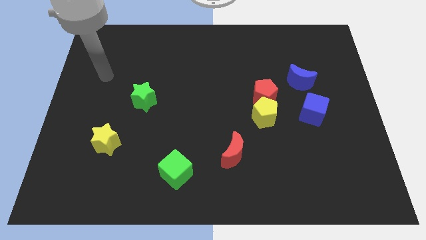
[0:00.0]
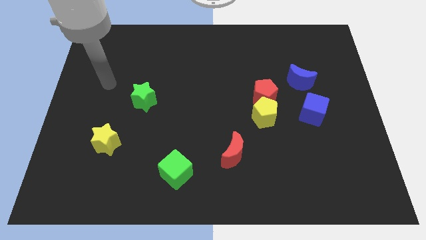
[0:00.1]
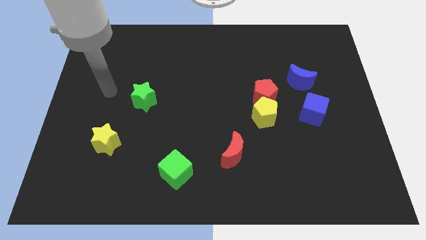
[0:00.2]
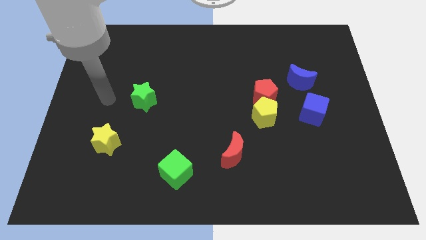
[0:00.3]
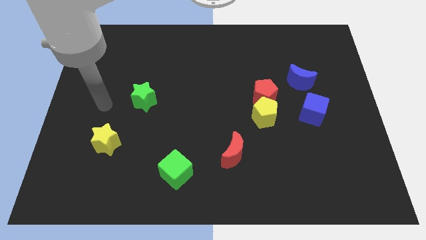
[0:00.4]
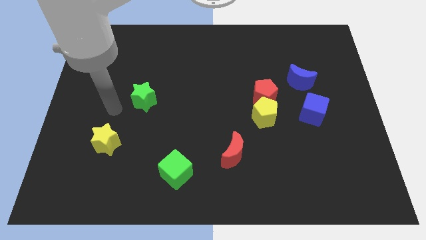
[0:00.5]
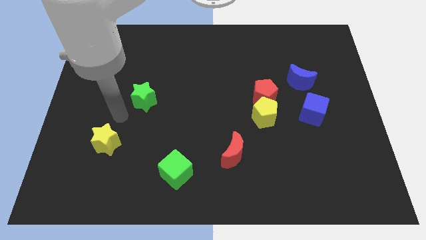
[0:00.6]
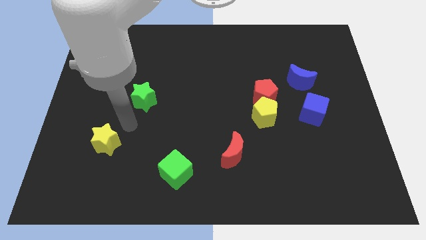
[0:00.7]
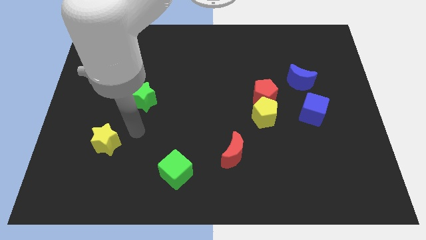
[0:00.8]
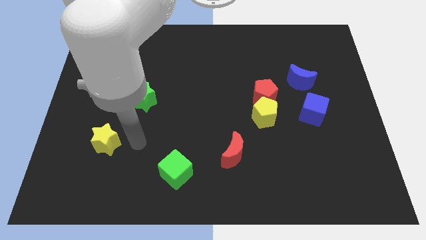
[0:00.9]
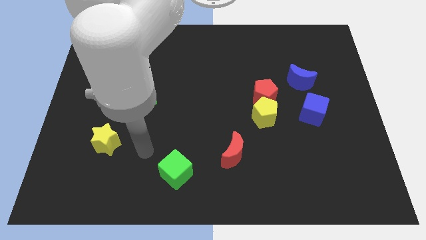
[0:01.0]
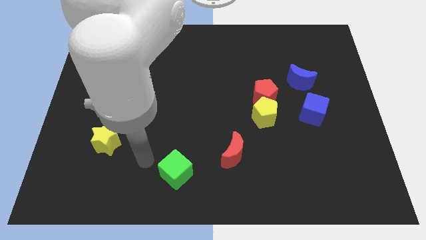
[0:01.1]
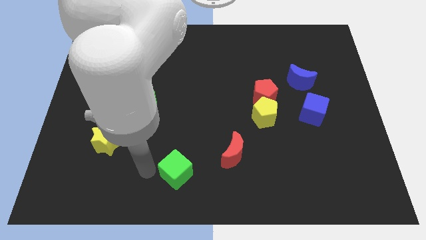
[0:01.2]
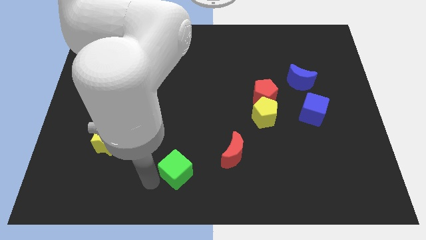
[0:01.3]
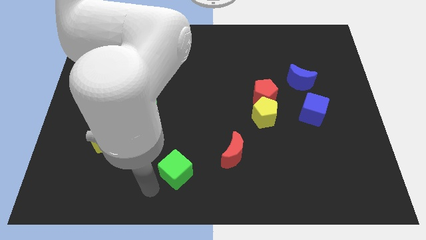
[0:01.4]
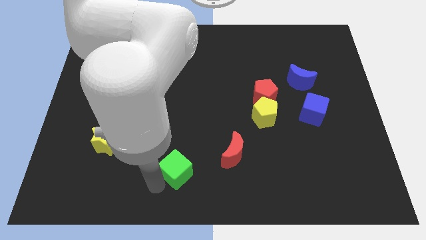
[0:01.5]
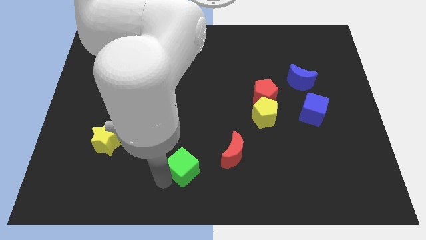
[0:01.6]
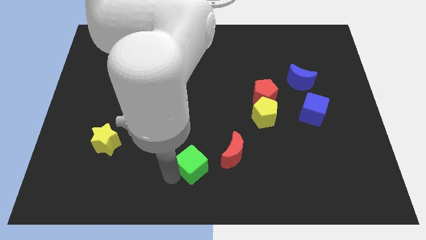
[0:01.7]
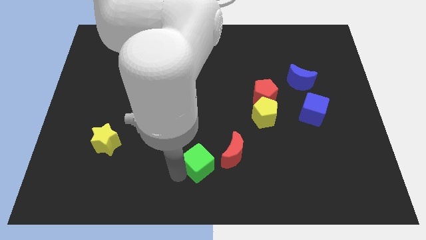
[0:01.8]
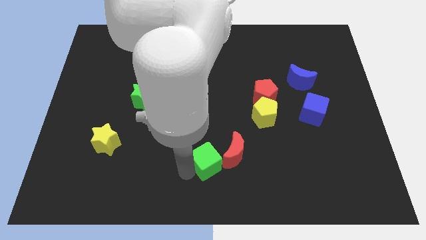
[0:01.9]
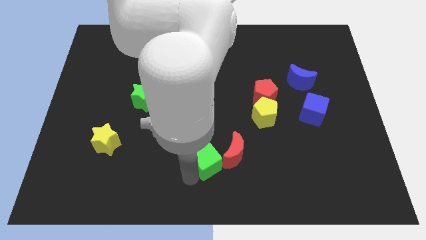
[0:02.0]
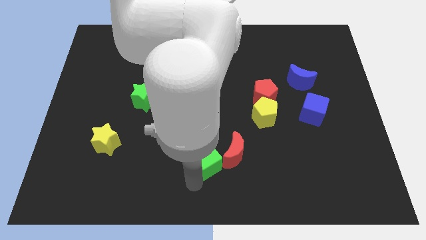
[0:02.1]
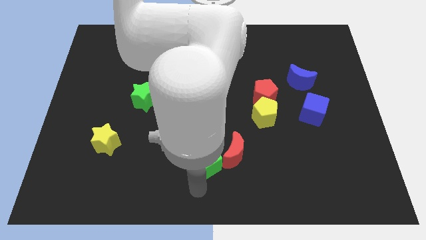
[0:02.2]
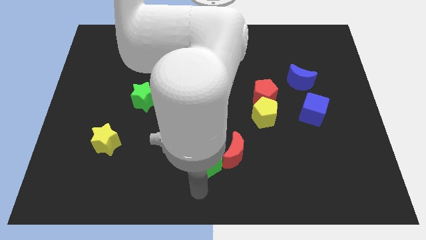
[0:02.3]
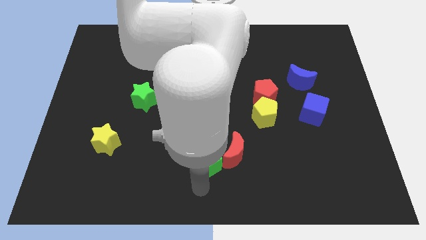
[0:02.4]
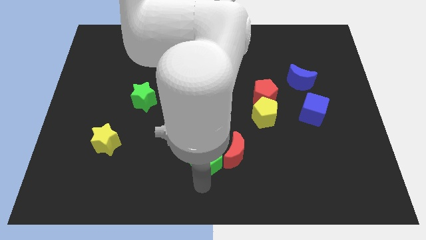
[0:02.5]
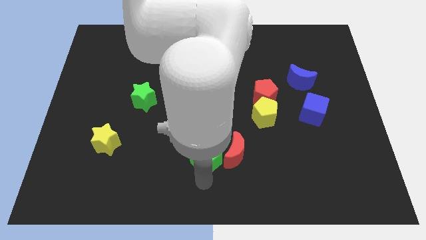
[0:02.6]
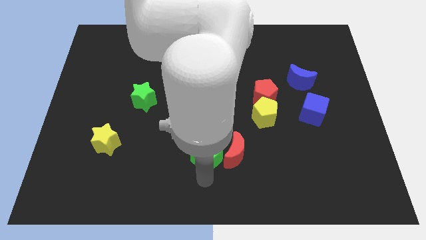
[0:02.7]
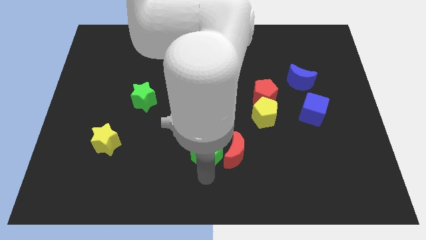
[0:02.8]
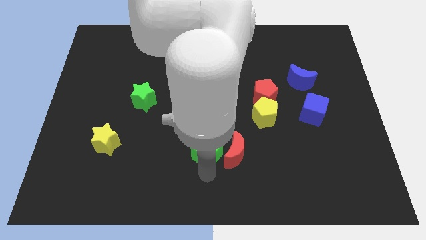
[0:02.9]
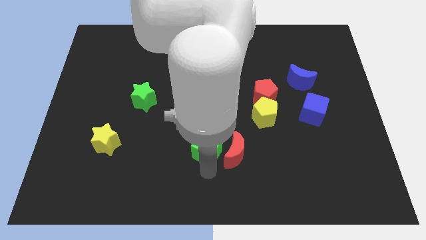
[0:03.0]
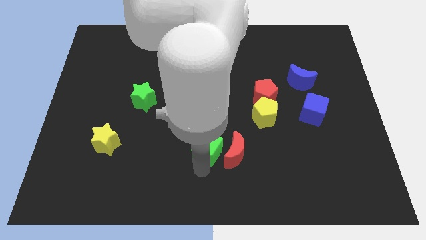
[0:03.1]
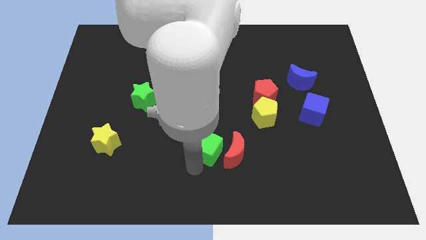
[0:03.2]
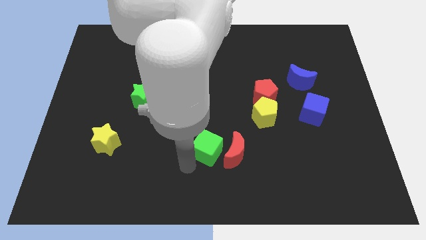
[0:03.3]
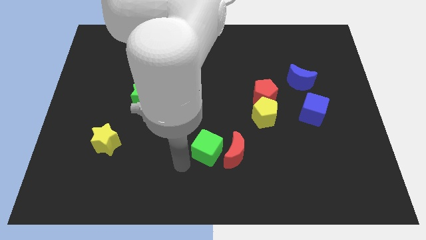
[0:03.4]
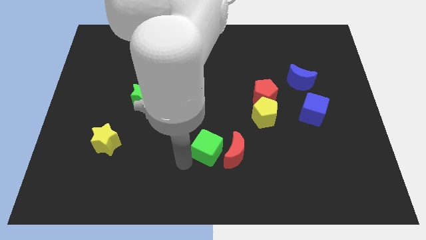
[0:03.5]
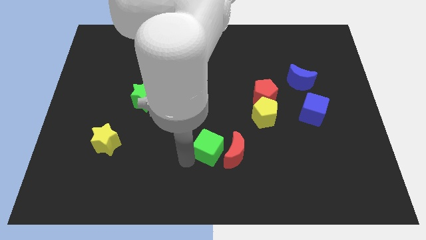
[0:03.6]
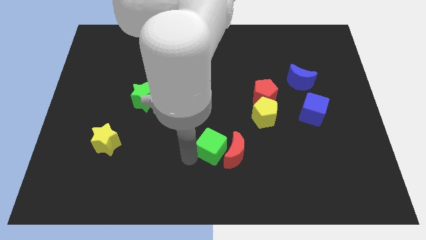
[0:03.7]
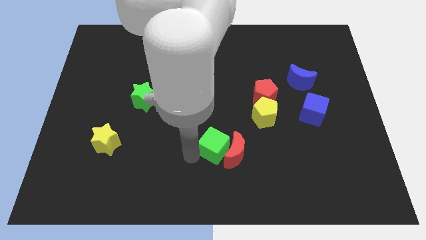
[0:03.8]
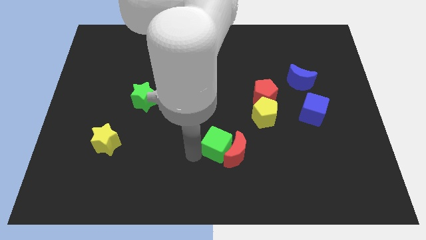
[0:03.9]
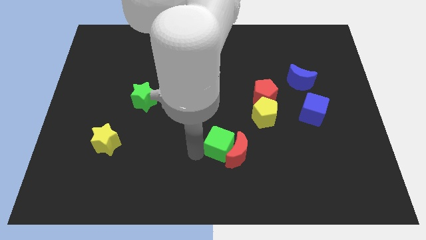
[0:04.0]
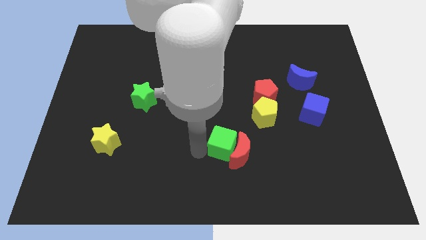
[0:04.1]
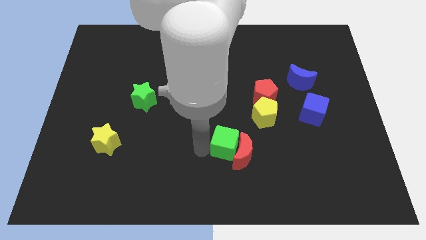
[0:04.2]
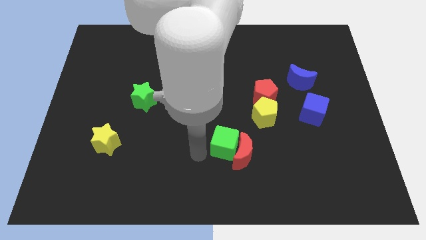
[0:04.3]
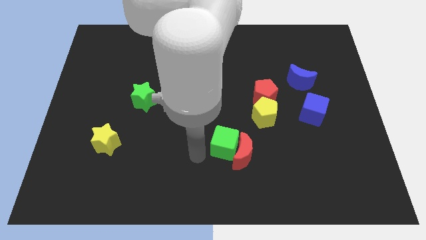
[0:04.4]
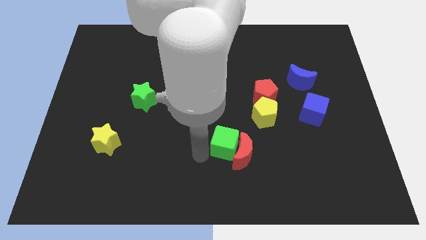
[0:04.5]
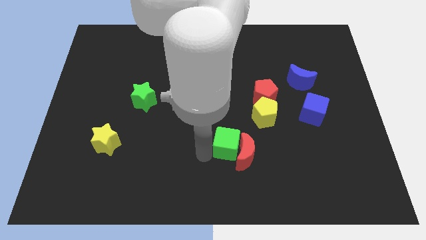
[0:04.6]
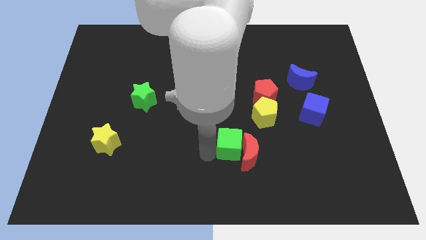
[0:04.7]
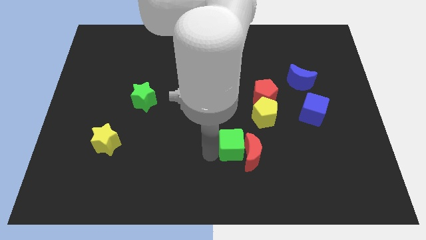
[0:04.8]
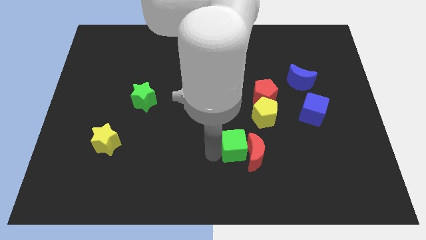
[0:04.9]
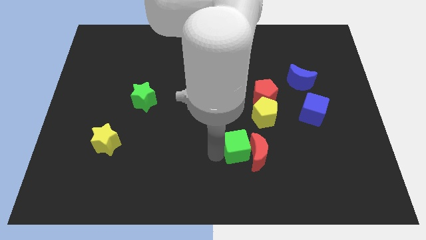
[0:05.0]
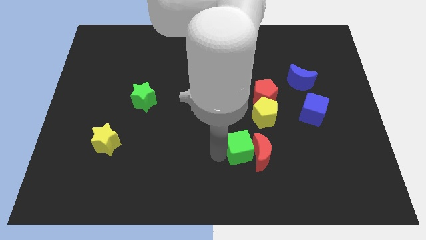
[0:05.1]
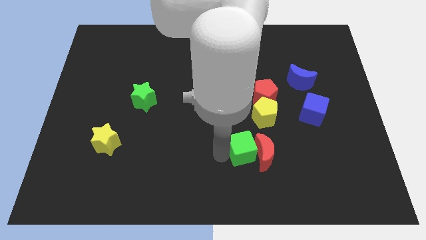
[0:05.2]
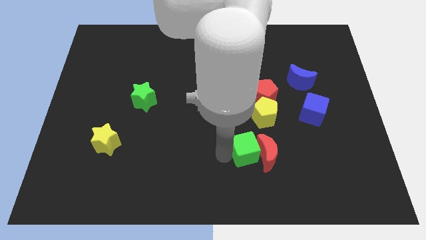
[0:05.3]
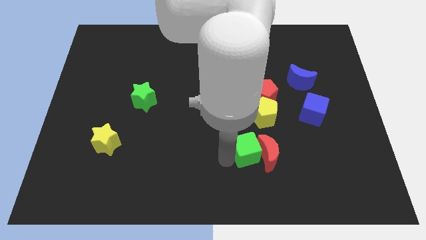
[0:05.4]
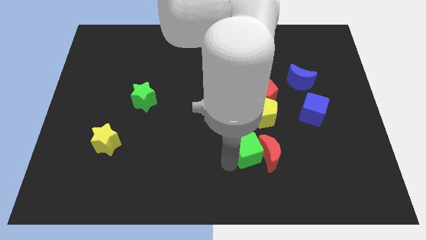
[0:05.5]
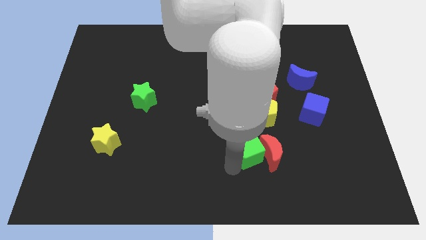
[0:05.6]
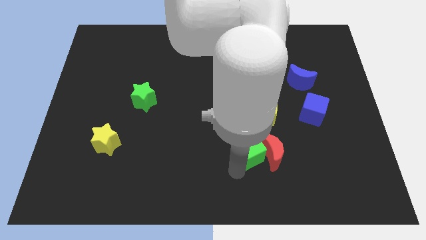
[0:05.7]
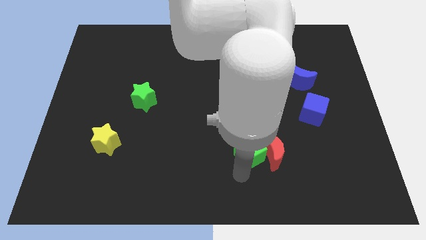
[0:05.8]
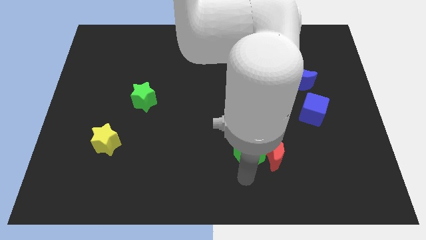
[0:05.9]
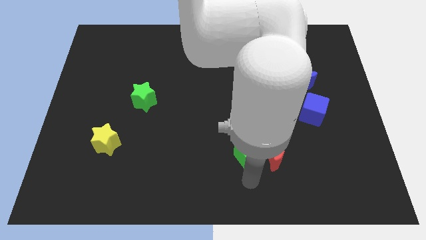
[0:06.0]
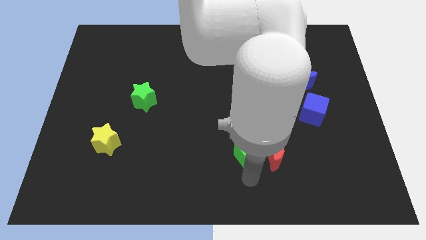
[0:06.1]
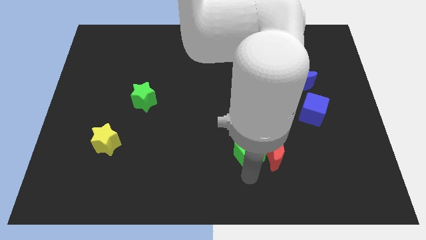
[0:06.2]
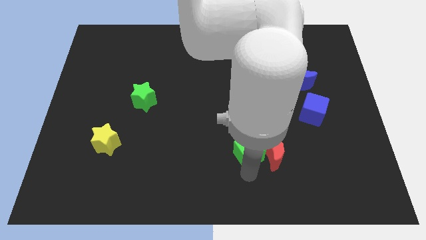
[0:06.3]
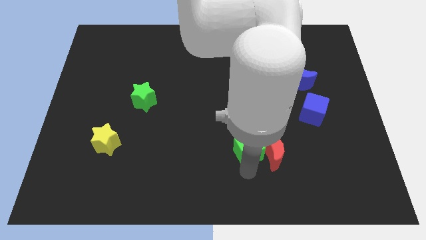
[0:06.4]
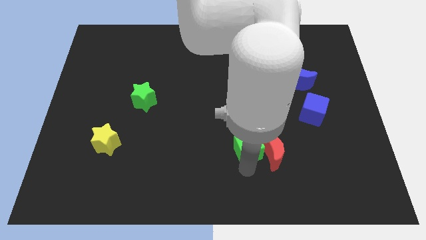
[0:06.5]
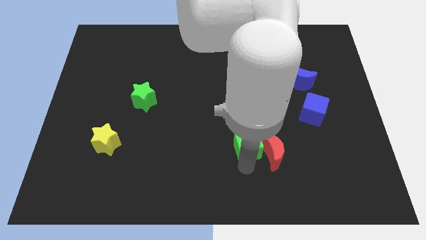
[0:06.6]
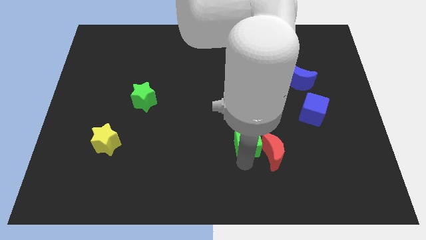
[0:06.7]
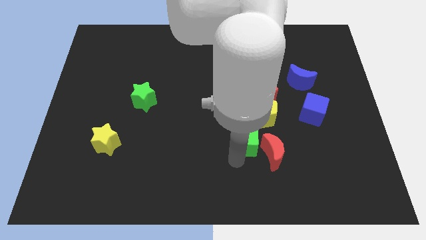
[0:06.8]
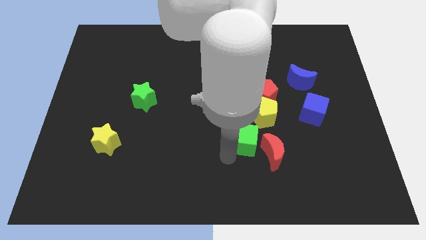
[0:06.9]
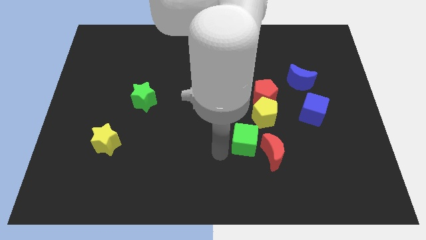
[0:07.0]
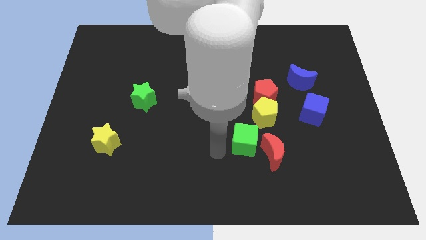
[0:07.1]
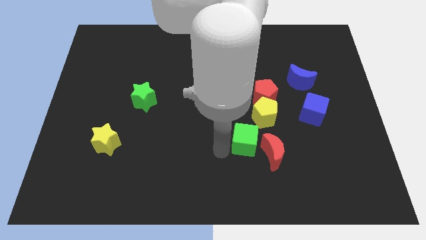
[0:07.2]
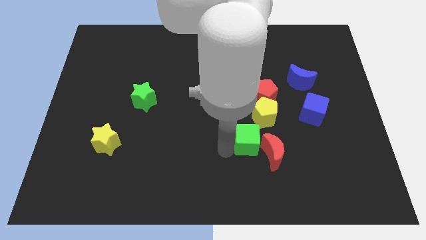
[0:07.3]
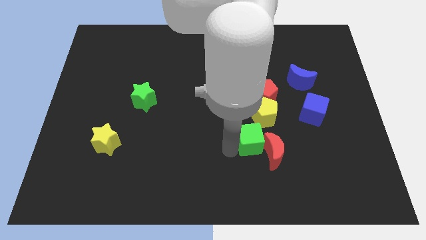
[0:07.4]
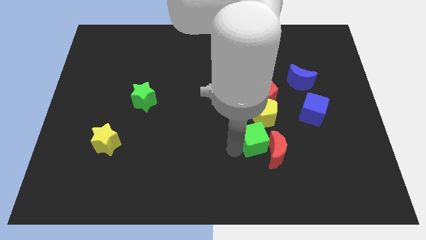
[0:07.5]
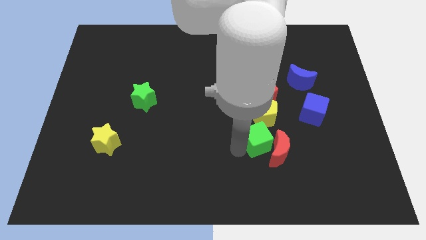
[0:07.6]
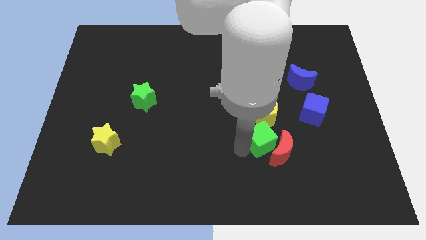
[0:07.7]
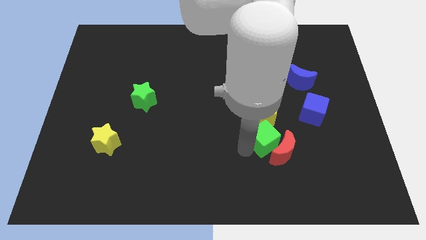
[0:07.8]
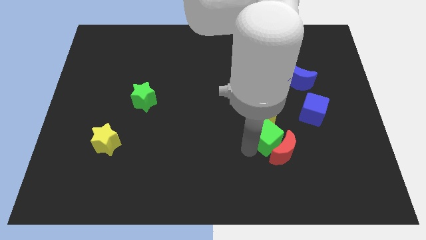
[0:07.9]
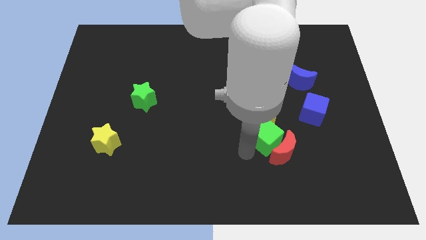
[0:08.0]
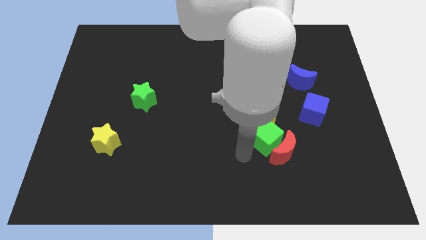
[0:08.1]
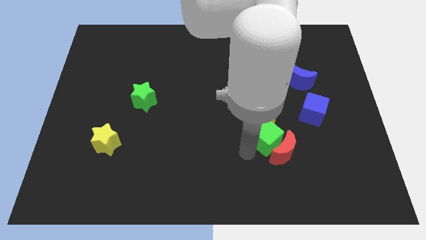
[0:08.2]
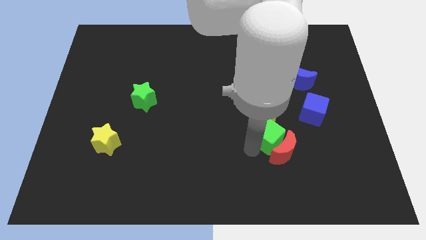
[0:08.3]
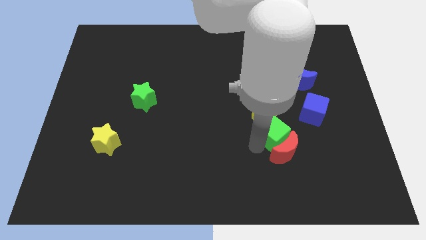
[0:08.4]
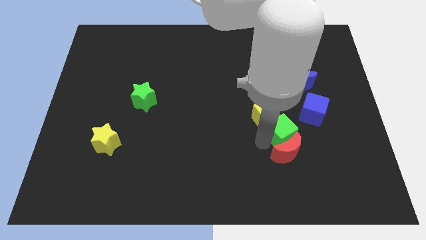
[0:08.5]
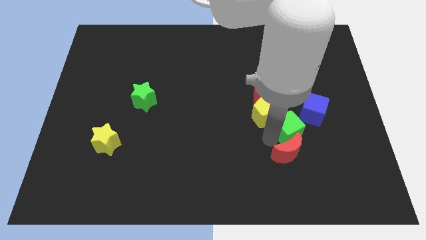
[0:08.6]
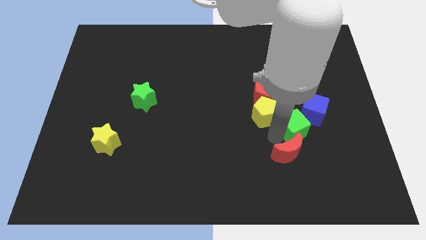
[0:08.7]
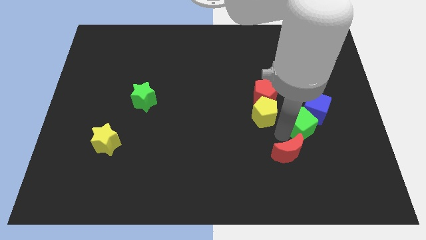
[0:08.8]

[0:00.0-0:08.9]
push the green cube close to the blue cube
